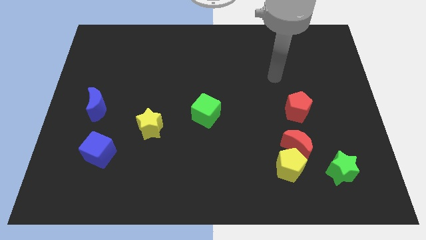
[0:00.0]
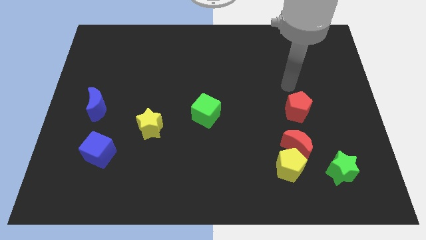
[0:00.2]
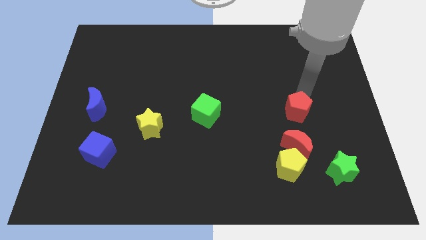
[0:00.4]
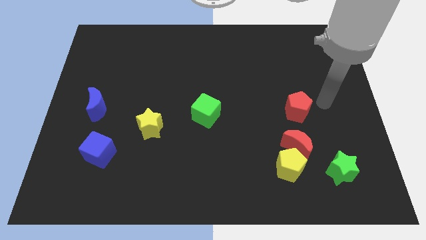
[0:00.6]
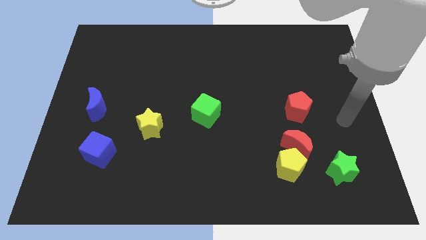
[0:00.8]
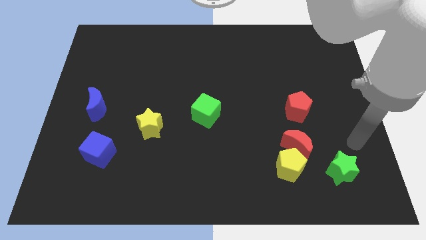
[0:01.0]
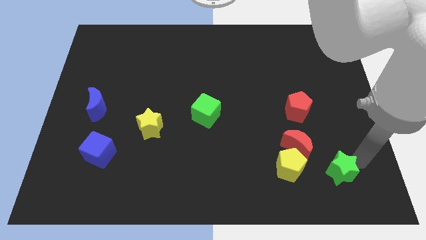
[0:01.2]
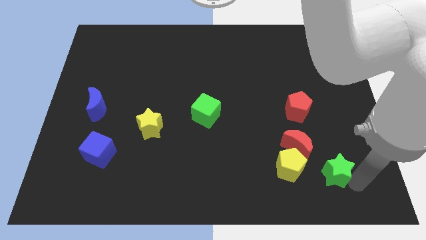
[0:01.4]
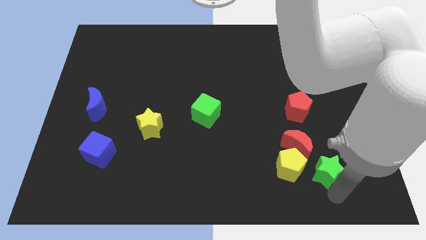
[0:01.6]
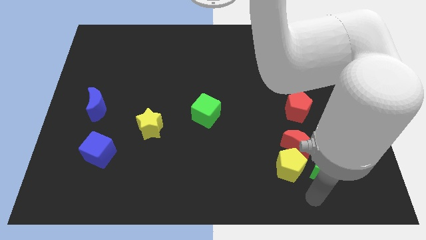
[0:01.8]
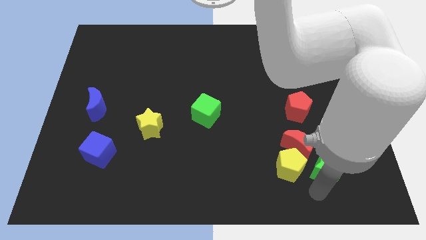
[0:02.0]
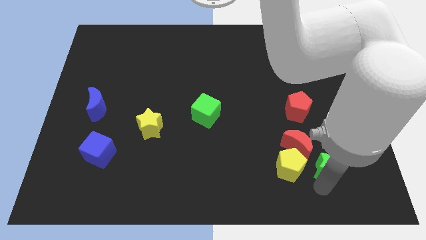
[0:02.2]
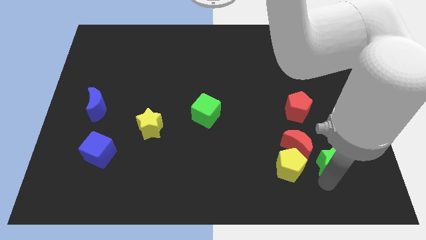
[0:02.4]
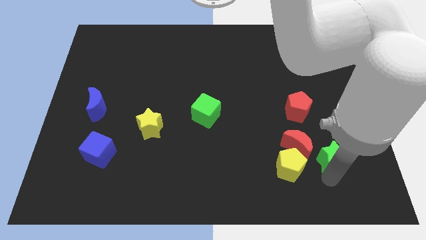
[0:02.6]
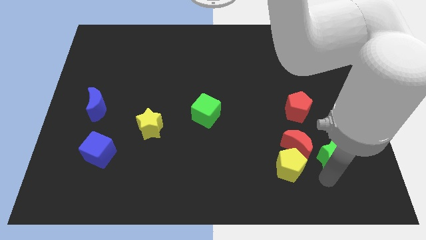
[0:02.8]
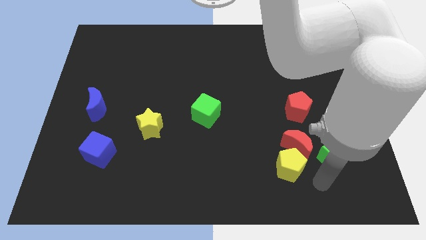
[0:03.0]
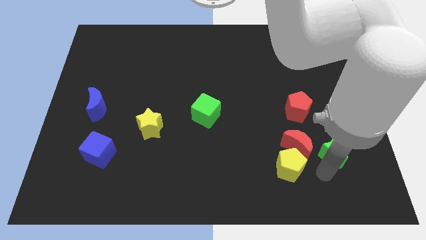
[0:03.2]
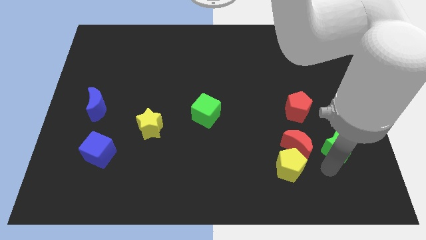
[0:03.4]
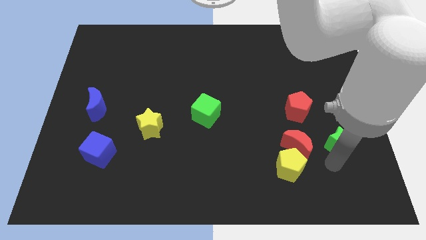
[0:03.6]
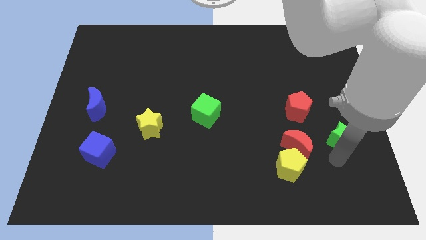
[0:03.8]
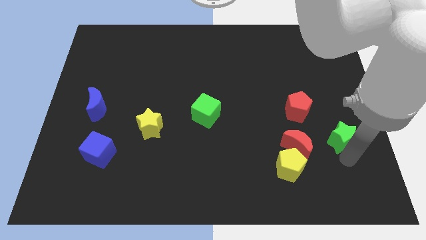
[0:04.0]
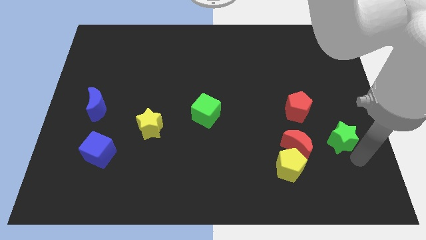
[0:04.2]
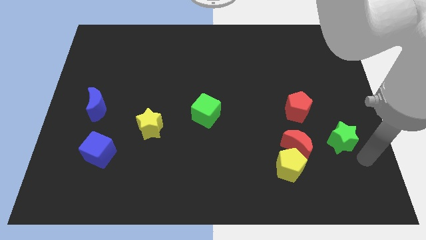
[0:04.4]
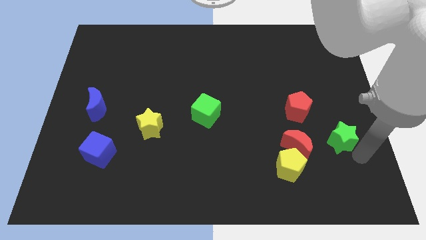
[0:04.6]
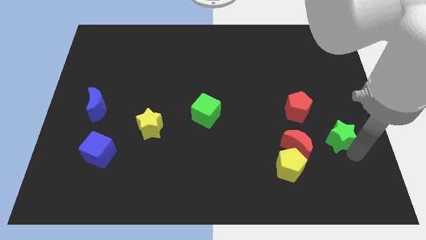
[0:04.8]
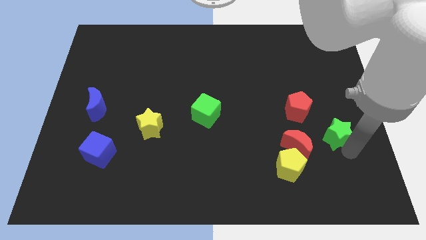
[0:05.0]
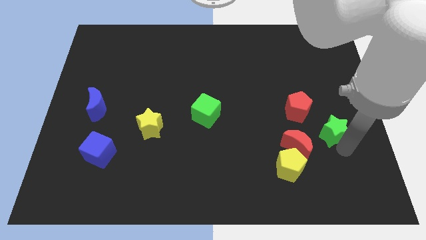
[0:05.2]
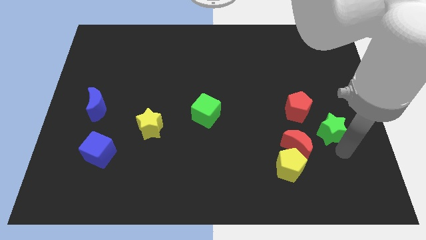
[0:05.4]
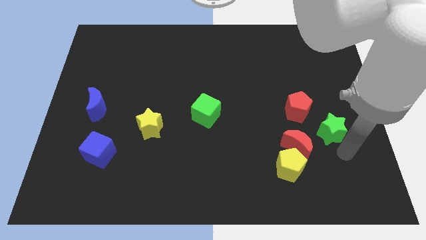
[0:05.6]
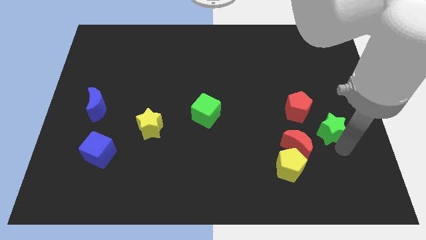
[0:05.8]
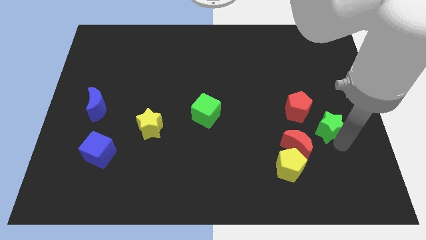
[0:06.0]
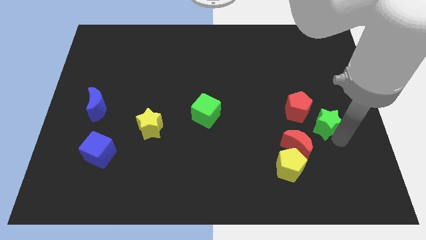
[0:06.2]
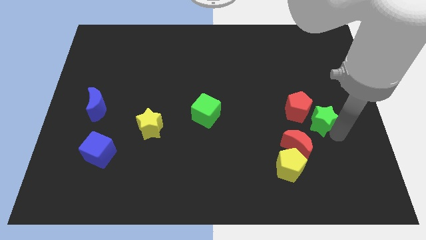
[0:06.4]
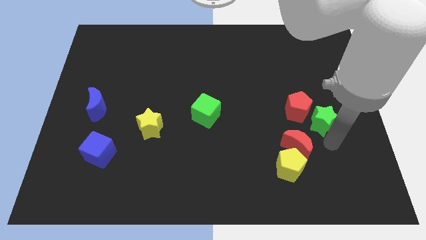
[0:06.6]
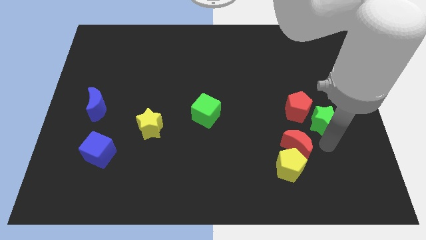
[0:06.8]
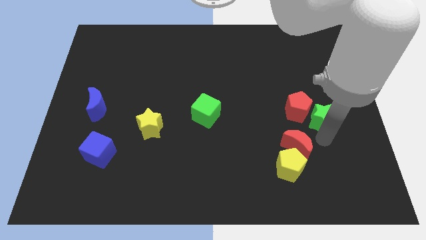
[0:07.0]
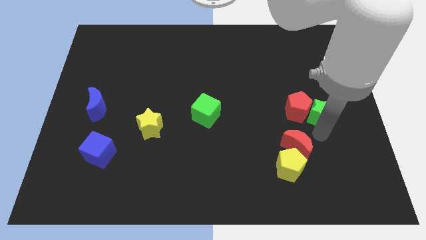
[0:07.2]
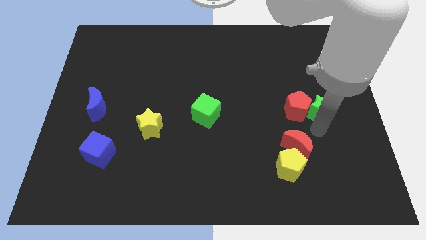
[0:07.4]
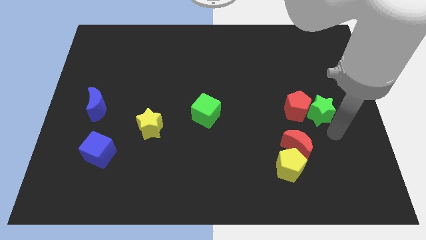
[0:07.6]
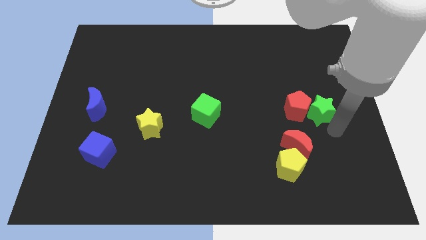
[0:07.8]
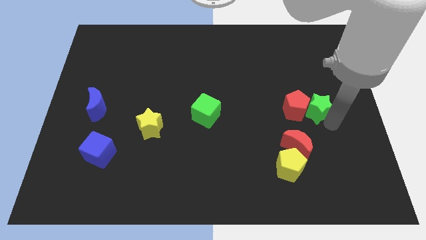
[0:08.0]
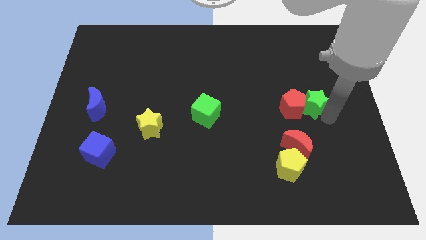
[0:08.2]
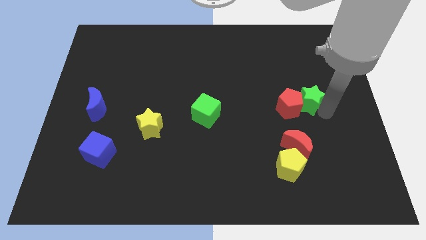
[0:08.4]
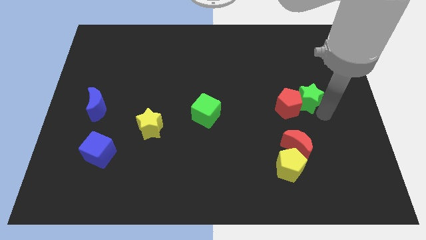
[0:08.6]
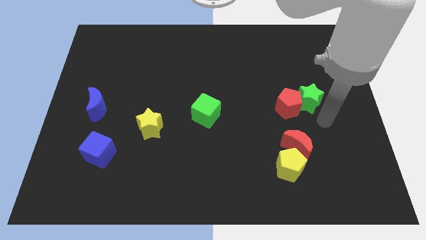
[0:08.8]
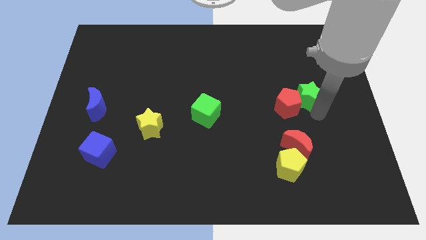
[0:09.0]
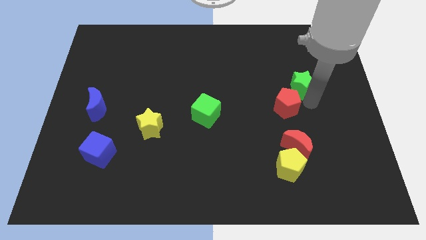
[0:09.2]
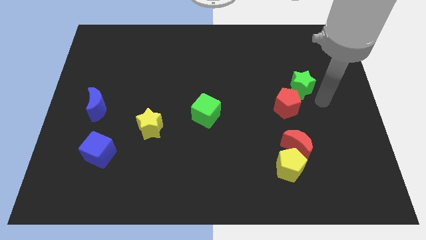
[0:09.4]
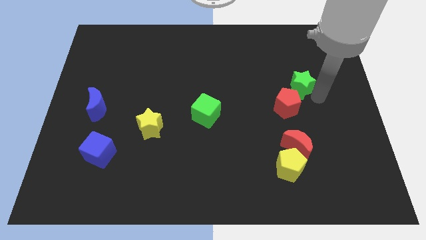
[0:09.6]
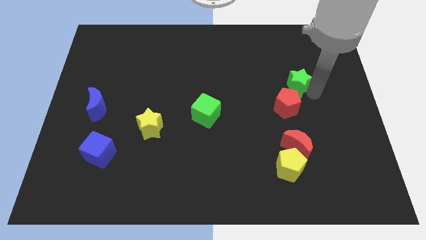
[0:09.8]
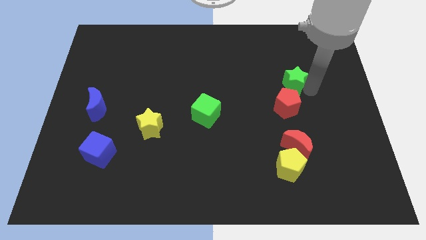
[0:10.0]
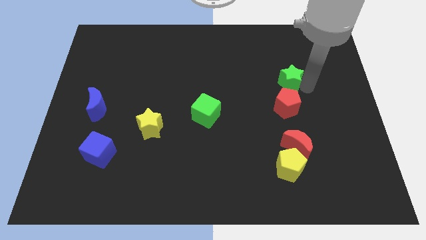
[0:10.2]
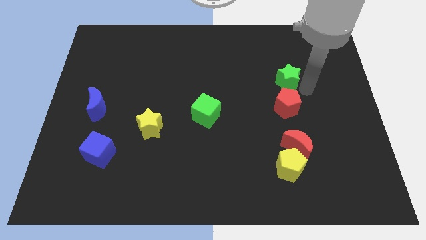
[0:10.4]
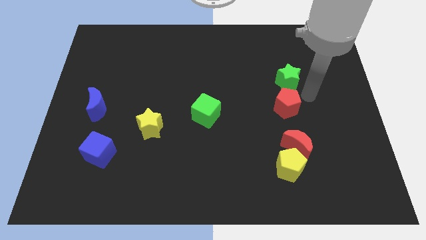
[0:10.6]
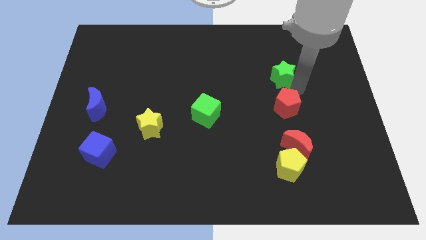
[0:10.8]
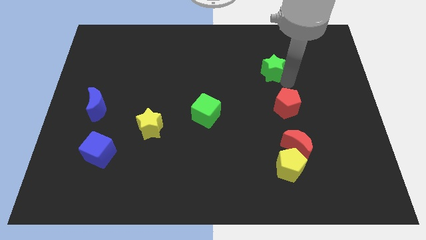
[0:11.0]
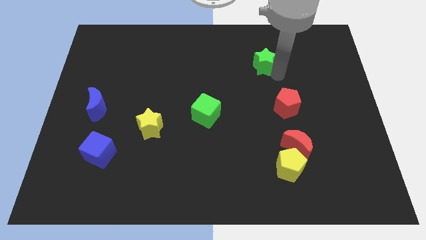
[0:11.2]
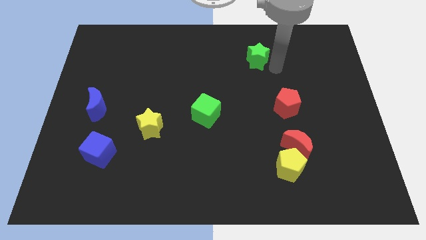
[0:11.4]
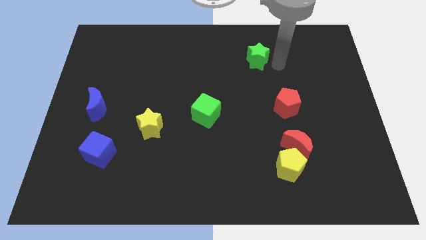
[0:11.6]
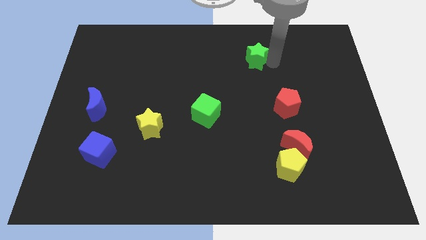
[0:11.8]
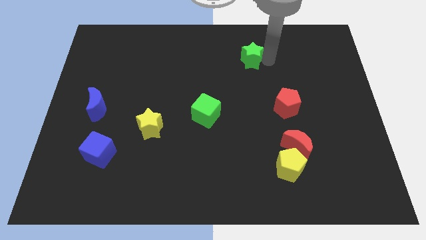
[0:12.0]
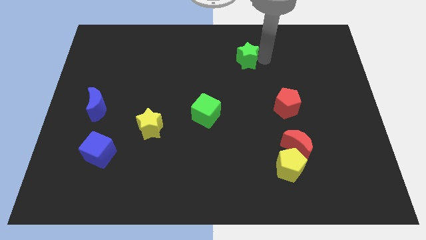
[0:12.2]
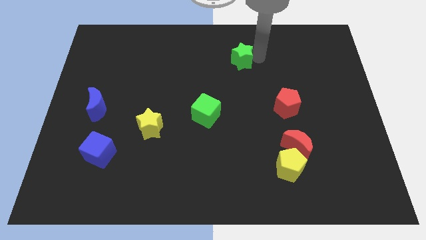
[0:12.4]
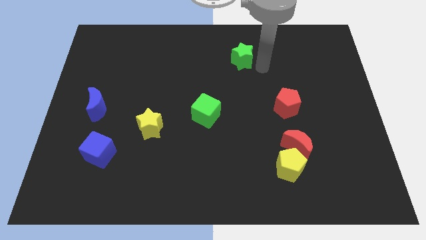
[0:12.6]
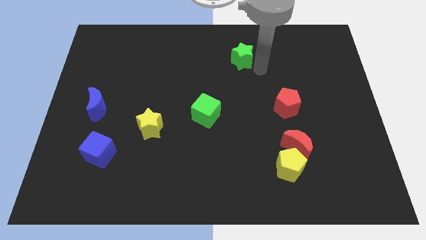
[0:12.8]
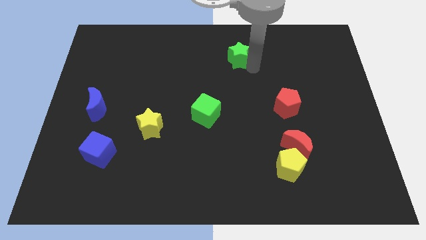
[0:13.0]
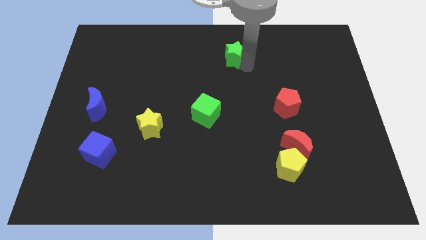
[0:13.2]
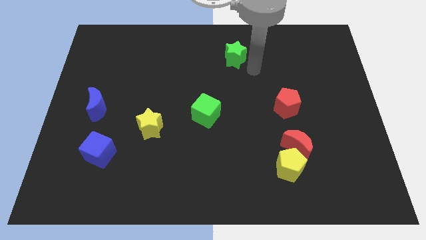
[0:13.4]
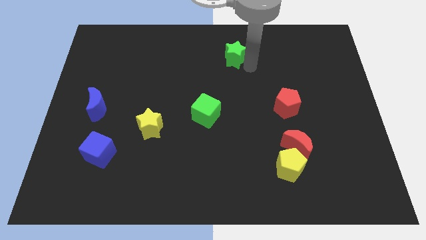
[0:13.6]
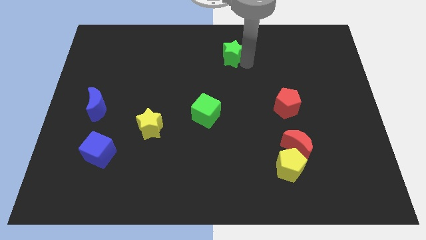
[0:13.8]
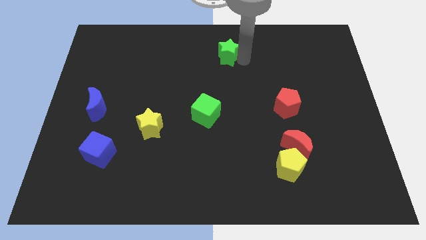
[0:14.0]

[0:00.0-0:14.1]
move the green star to the top side
